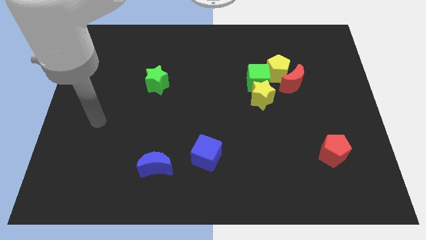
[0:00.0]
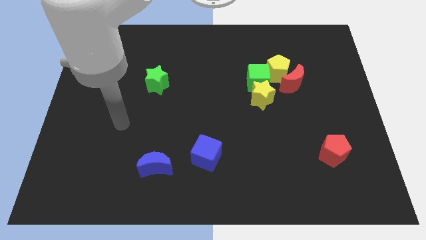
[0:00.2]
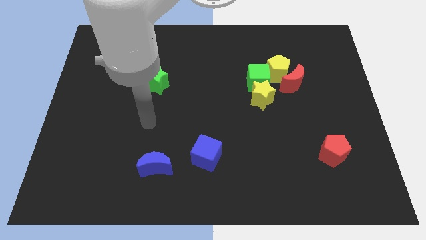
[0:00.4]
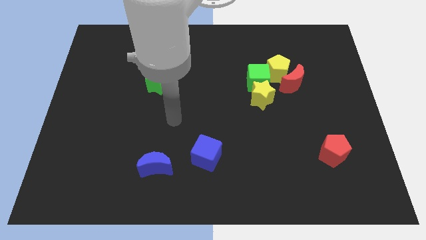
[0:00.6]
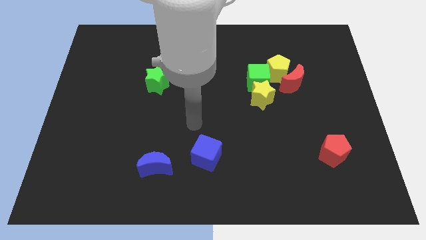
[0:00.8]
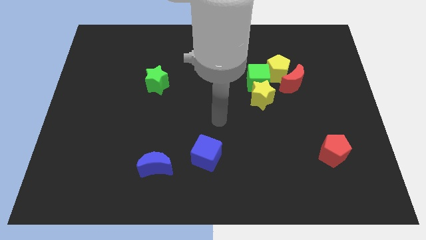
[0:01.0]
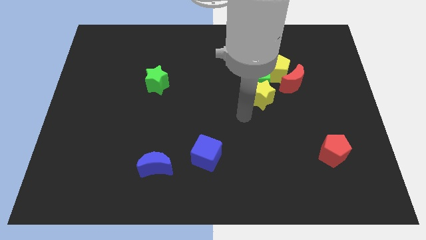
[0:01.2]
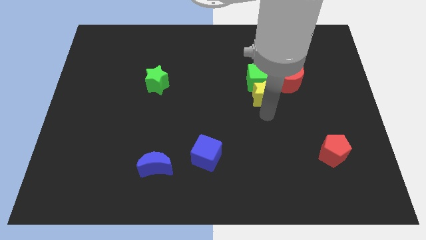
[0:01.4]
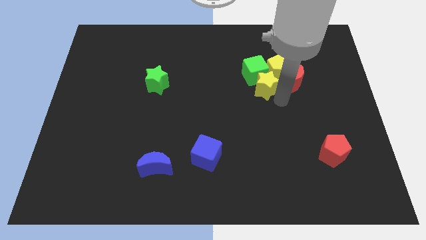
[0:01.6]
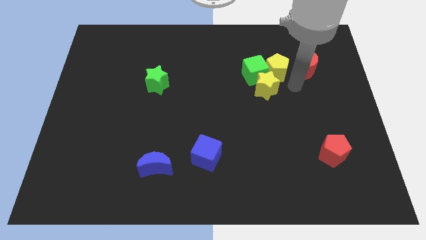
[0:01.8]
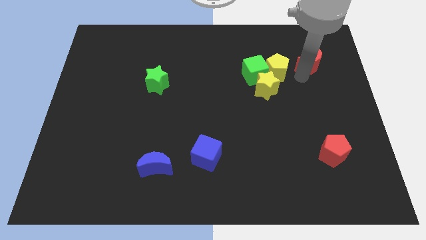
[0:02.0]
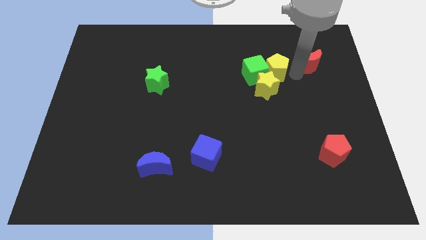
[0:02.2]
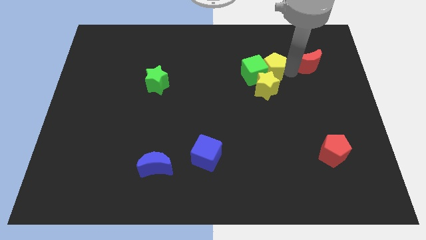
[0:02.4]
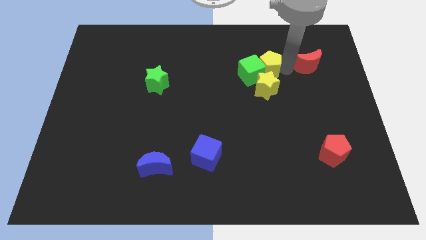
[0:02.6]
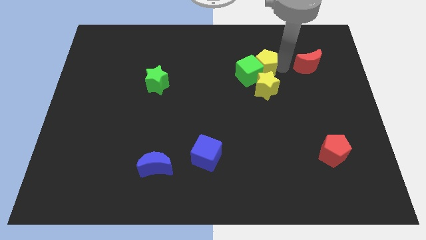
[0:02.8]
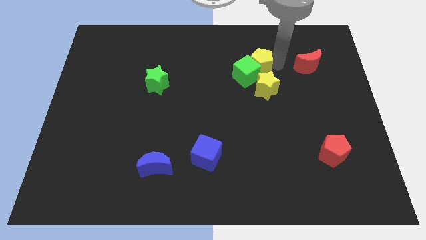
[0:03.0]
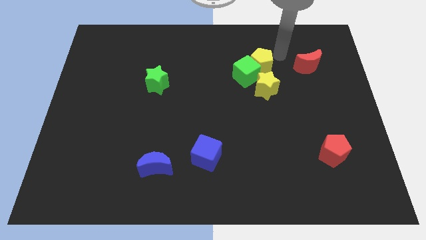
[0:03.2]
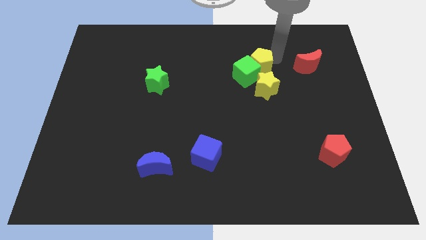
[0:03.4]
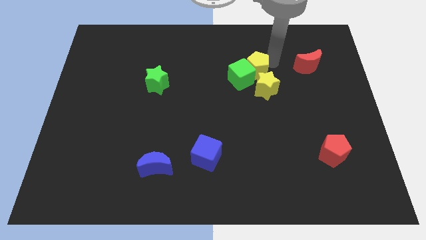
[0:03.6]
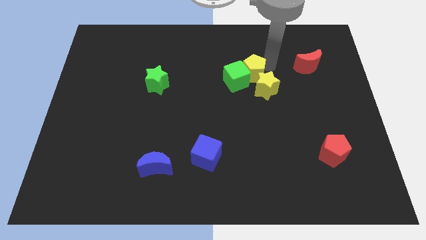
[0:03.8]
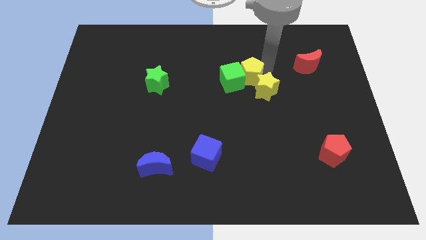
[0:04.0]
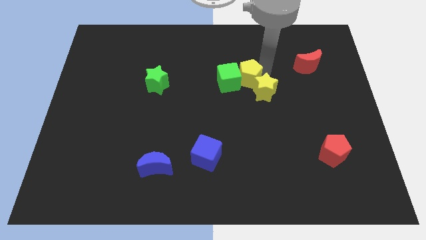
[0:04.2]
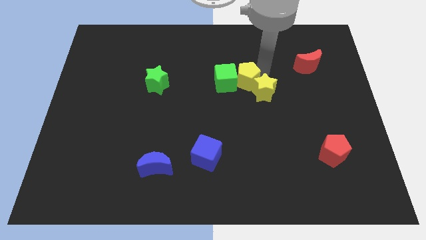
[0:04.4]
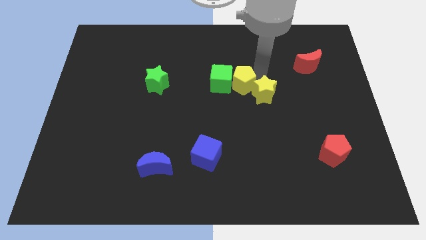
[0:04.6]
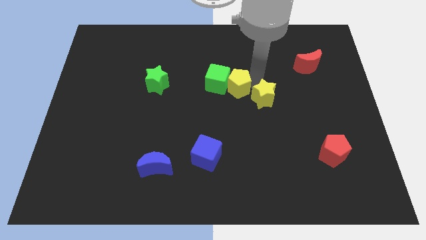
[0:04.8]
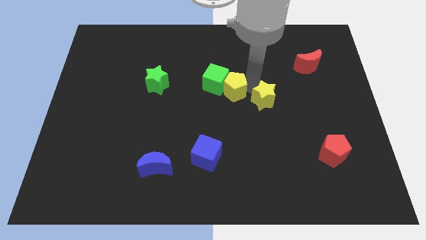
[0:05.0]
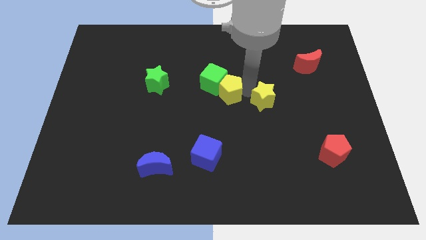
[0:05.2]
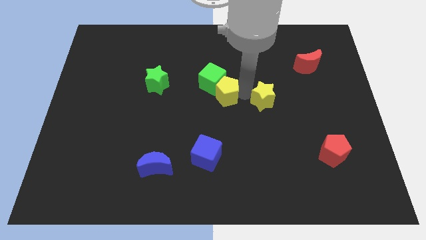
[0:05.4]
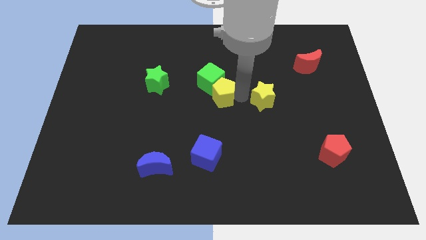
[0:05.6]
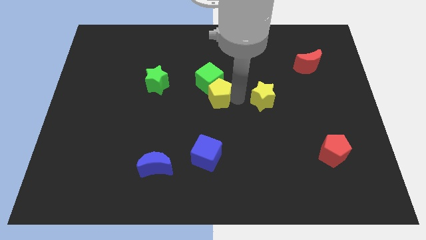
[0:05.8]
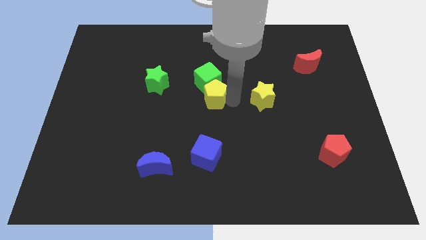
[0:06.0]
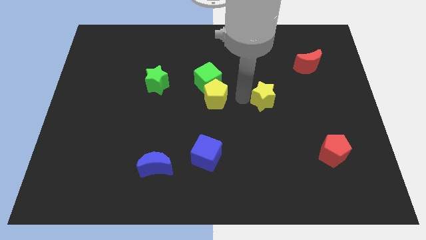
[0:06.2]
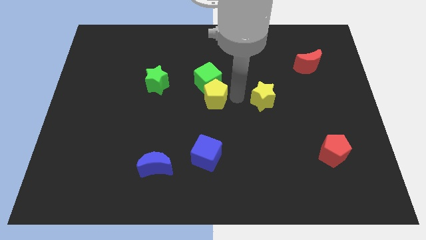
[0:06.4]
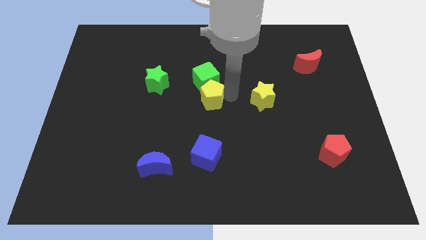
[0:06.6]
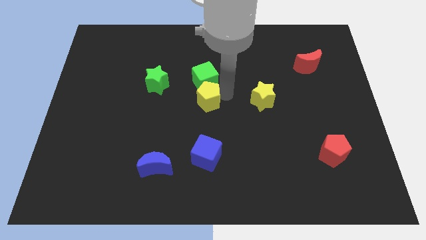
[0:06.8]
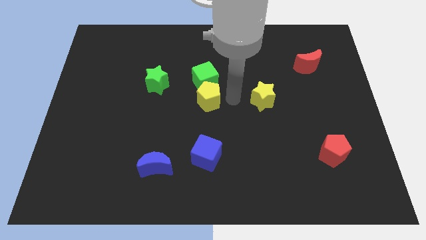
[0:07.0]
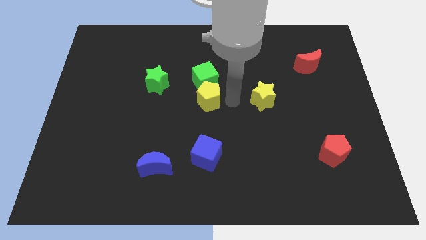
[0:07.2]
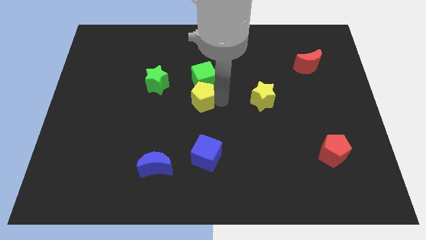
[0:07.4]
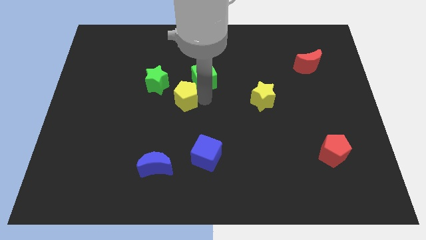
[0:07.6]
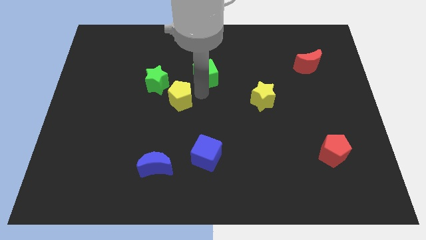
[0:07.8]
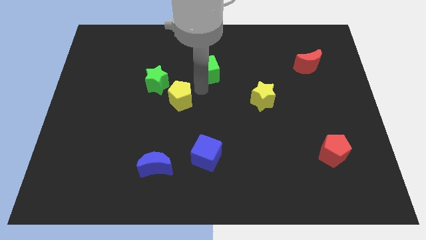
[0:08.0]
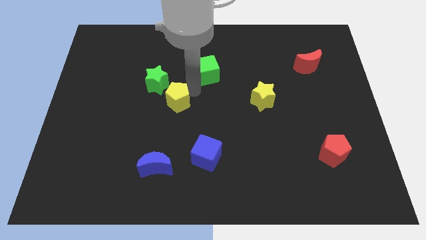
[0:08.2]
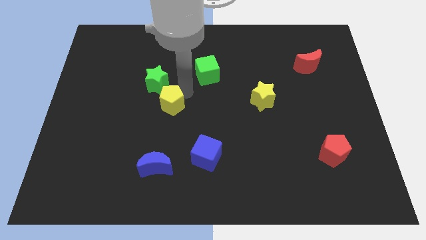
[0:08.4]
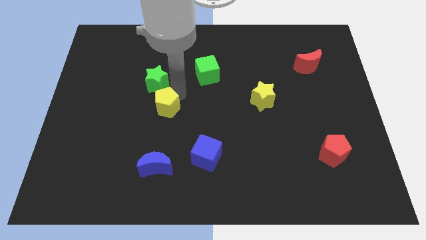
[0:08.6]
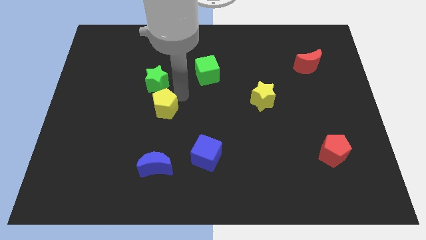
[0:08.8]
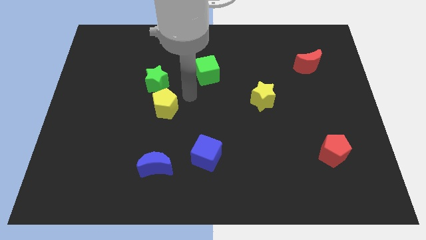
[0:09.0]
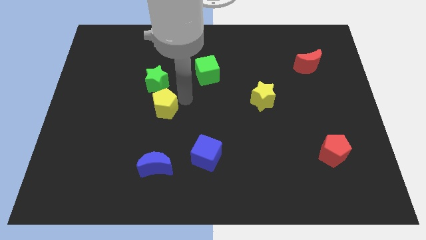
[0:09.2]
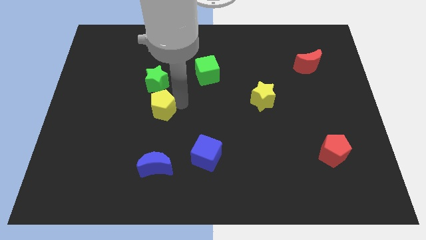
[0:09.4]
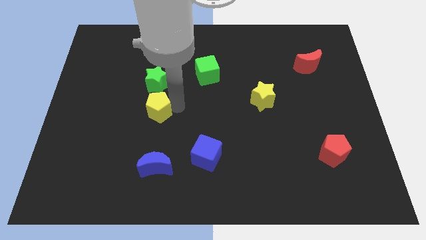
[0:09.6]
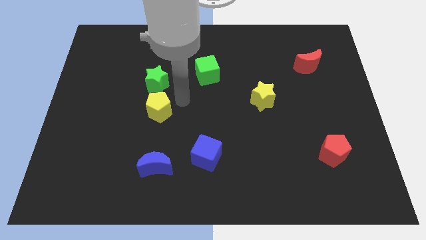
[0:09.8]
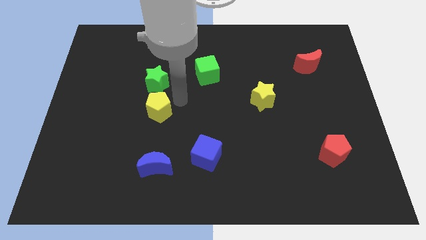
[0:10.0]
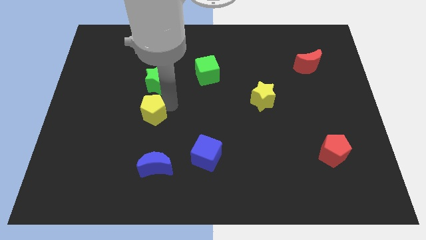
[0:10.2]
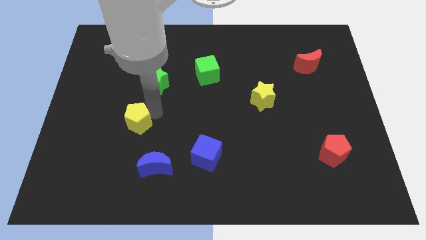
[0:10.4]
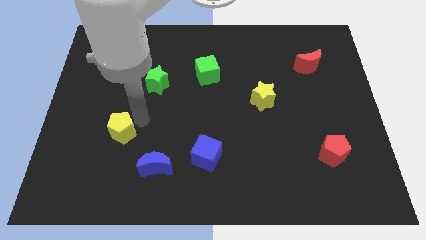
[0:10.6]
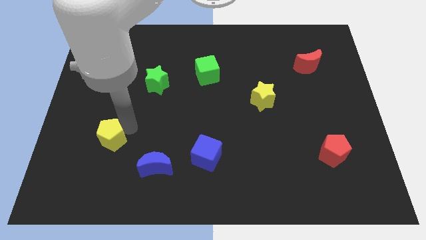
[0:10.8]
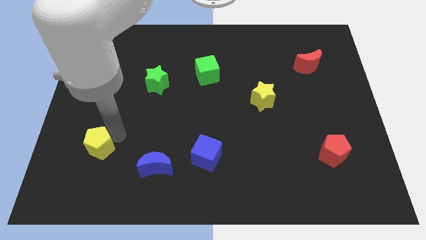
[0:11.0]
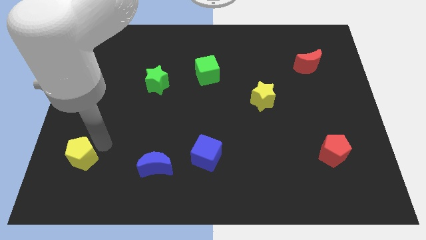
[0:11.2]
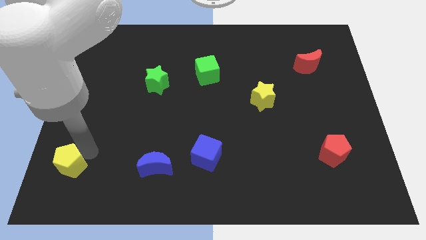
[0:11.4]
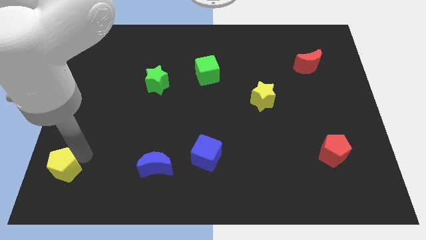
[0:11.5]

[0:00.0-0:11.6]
put the yellow pentagon to the bottom left corner
